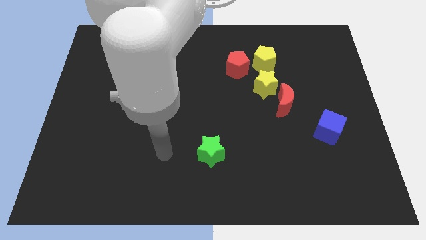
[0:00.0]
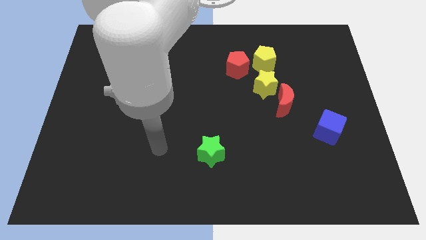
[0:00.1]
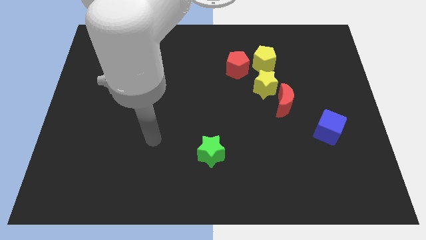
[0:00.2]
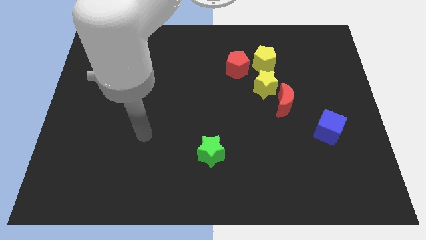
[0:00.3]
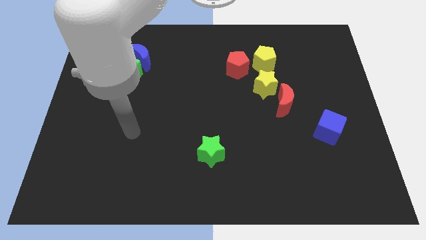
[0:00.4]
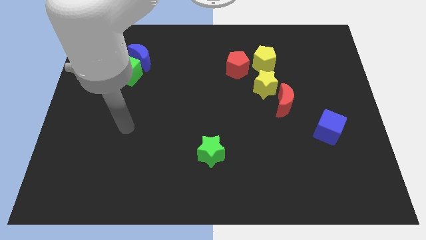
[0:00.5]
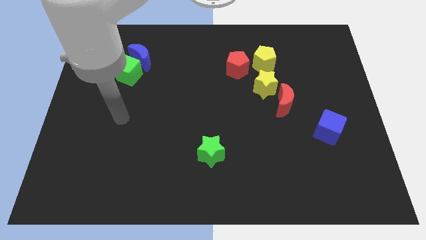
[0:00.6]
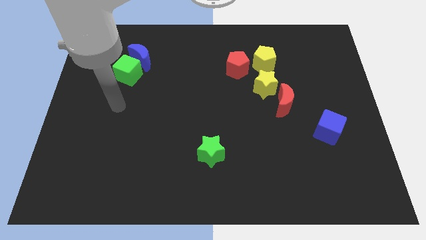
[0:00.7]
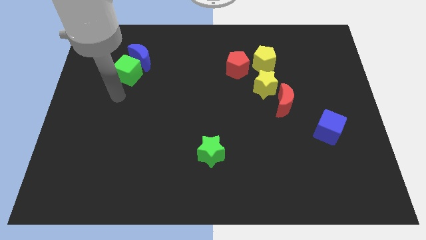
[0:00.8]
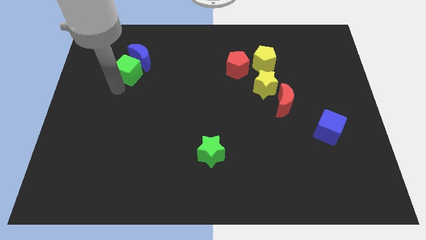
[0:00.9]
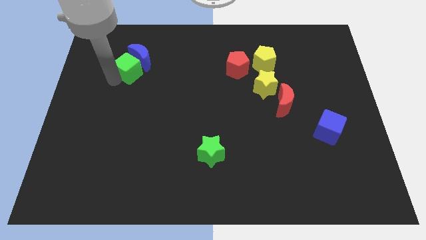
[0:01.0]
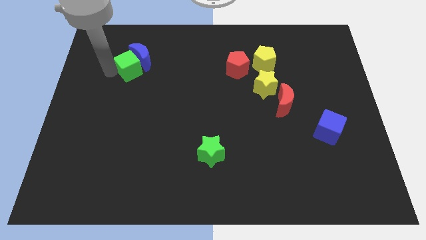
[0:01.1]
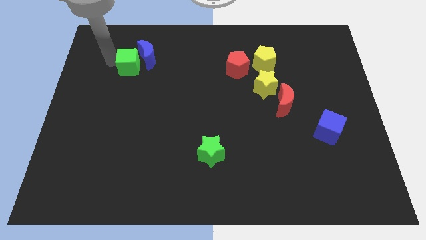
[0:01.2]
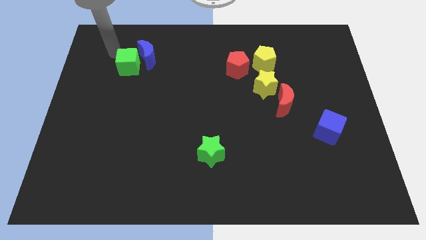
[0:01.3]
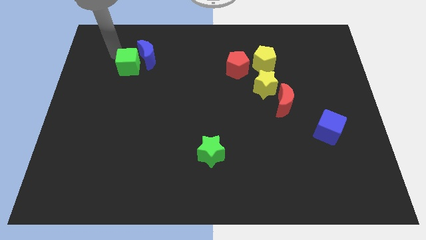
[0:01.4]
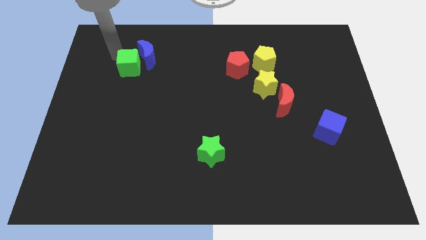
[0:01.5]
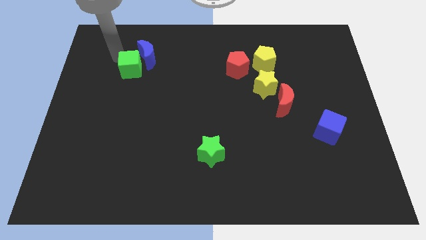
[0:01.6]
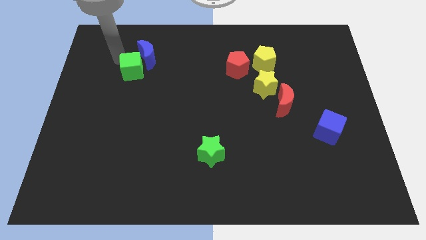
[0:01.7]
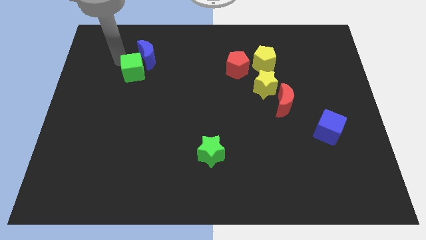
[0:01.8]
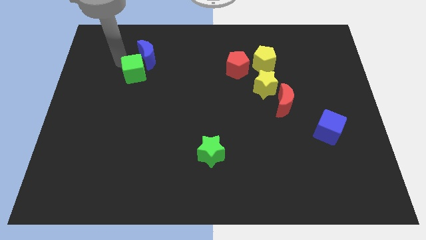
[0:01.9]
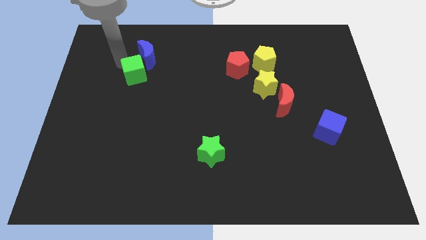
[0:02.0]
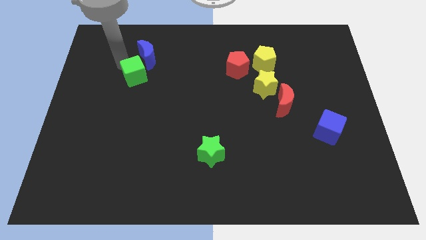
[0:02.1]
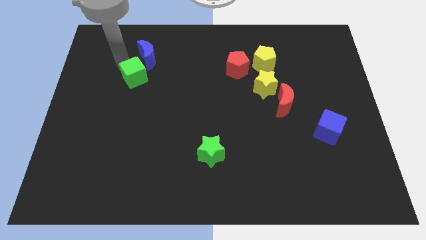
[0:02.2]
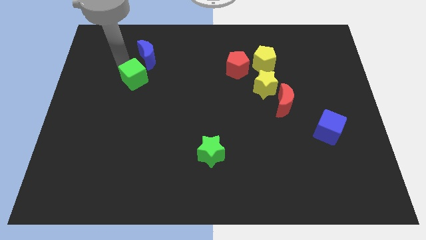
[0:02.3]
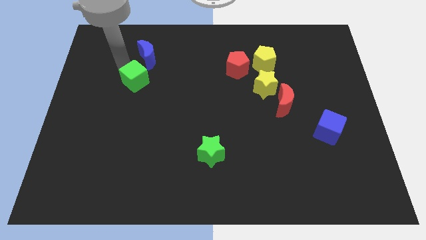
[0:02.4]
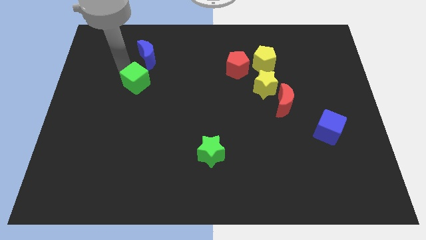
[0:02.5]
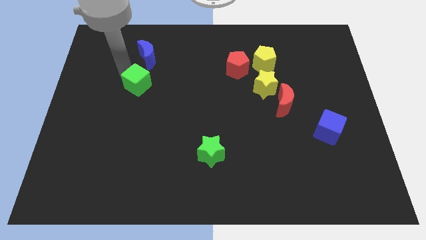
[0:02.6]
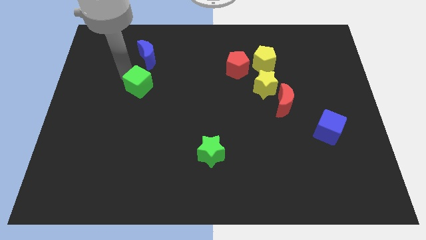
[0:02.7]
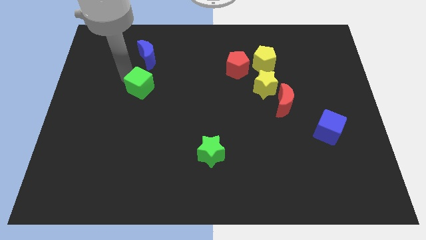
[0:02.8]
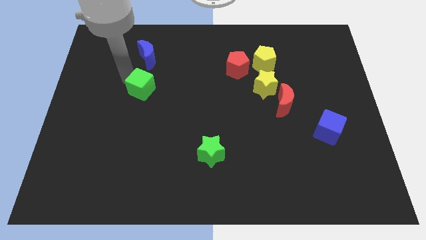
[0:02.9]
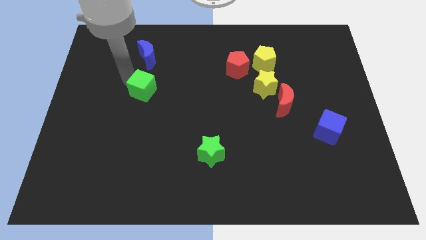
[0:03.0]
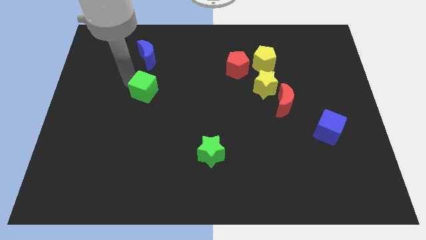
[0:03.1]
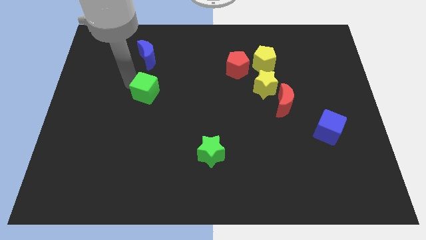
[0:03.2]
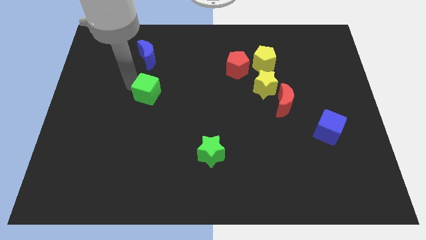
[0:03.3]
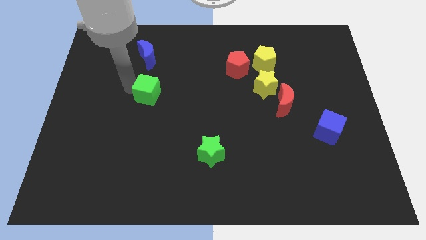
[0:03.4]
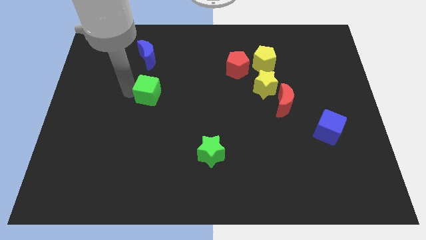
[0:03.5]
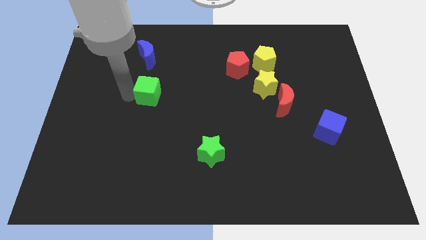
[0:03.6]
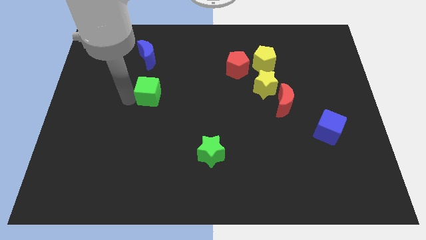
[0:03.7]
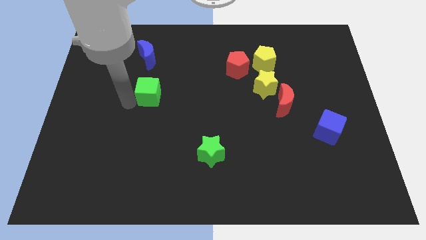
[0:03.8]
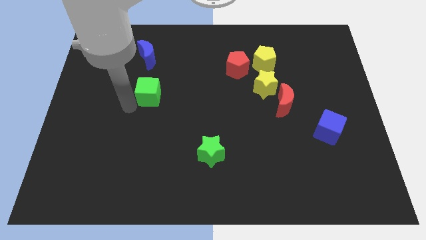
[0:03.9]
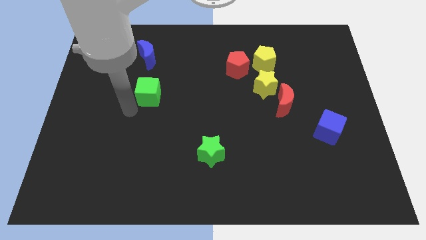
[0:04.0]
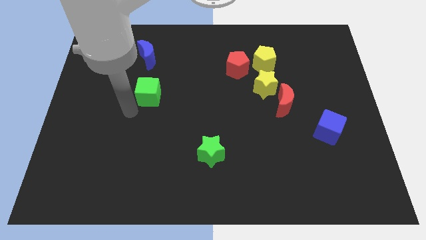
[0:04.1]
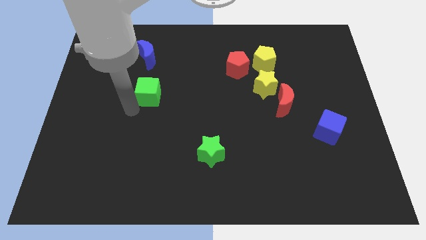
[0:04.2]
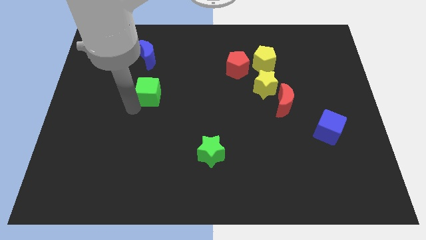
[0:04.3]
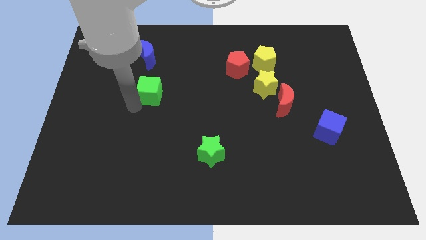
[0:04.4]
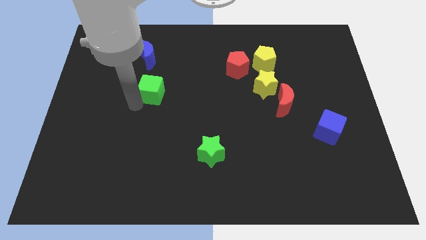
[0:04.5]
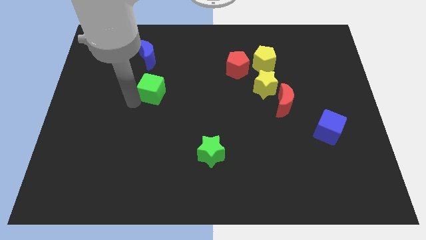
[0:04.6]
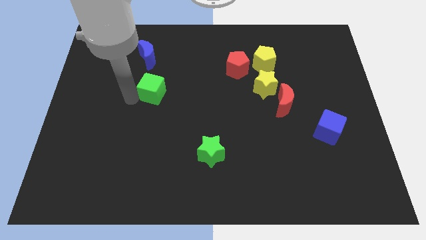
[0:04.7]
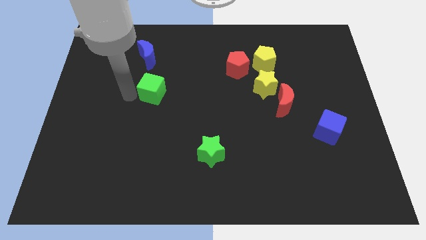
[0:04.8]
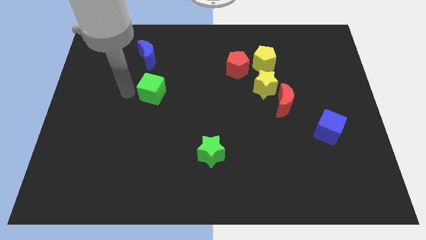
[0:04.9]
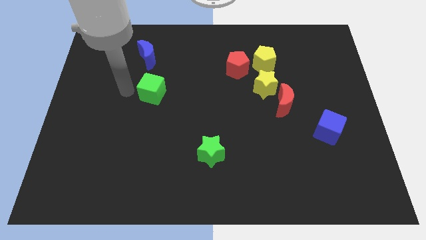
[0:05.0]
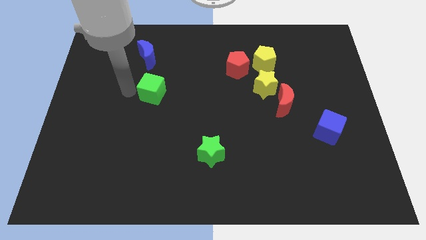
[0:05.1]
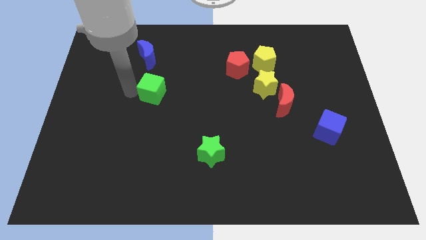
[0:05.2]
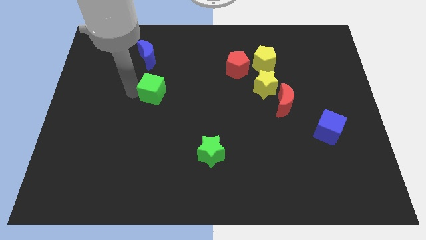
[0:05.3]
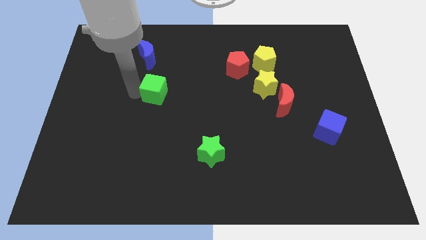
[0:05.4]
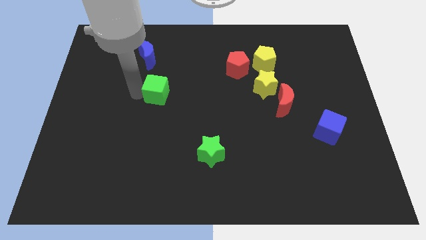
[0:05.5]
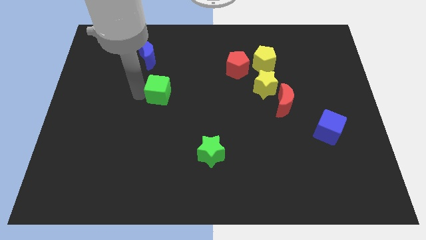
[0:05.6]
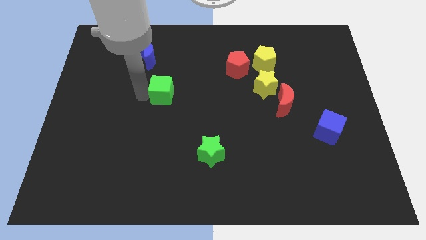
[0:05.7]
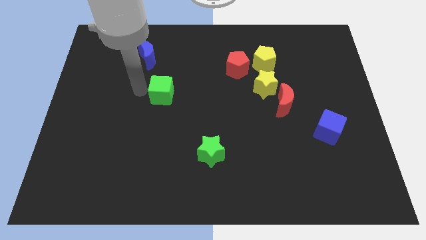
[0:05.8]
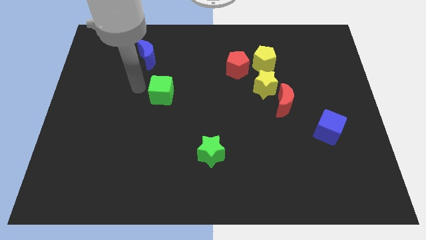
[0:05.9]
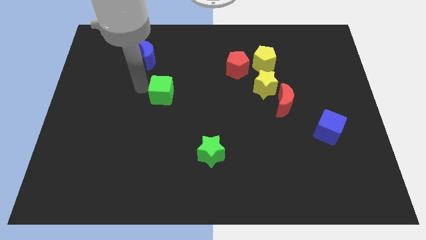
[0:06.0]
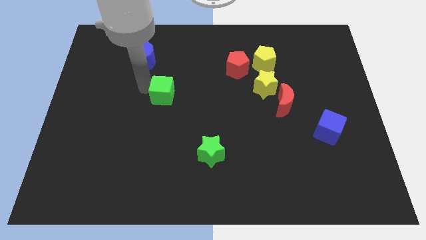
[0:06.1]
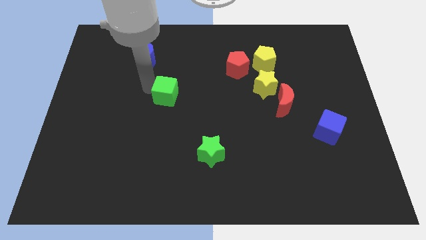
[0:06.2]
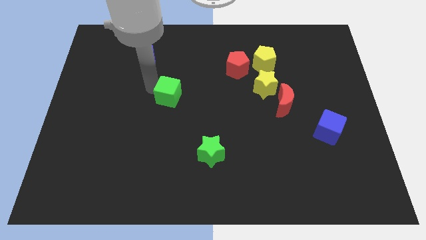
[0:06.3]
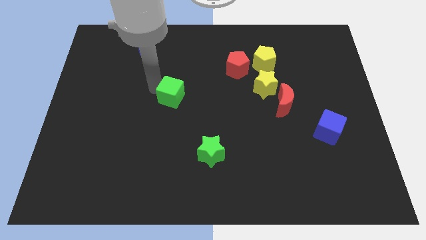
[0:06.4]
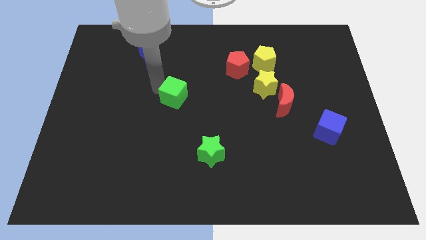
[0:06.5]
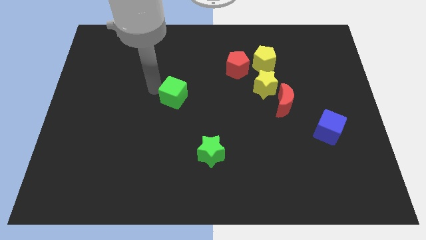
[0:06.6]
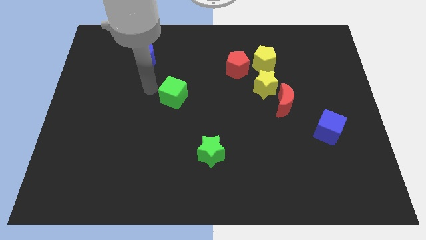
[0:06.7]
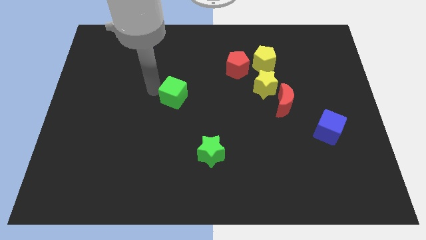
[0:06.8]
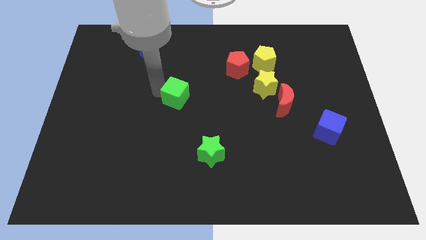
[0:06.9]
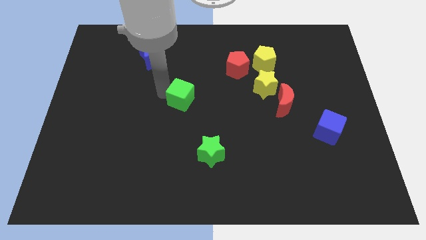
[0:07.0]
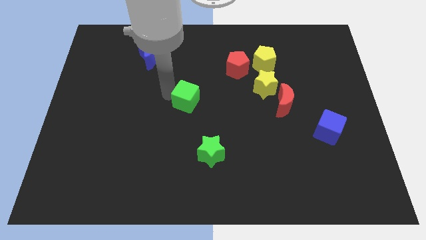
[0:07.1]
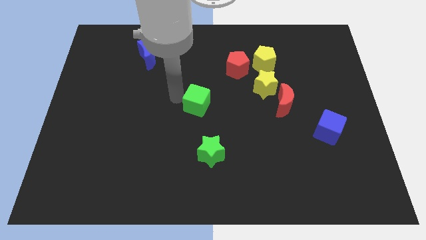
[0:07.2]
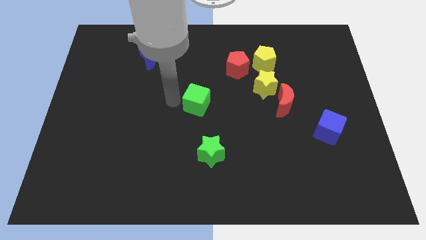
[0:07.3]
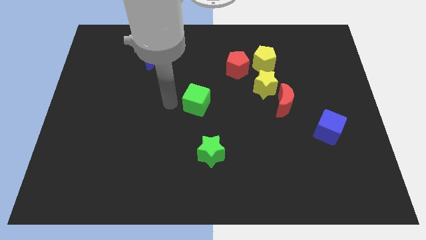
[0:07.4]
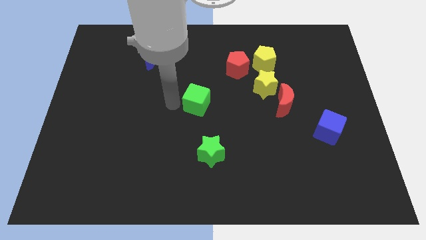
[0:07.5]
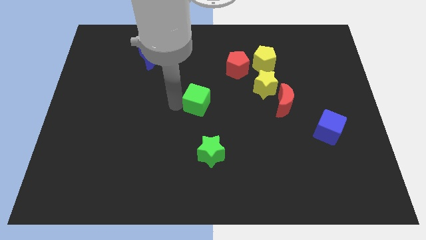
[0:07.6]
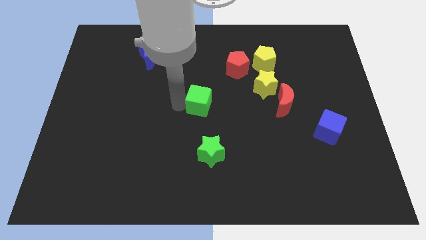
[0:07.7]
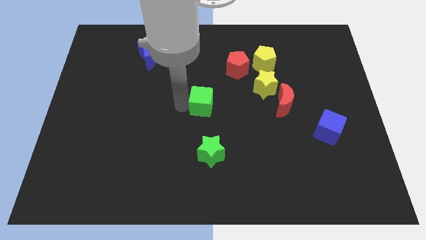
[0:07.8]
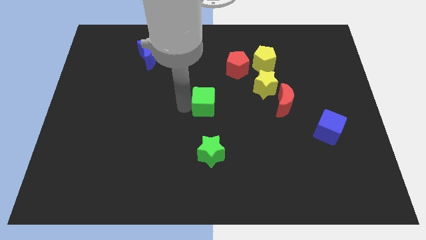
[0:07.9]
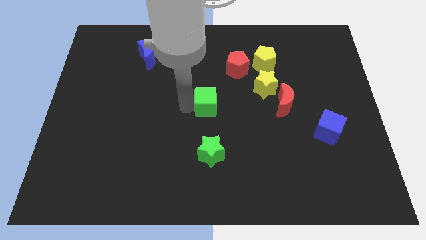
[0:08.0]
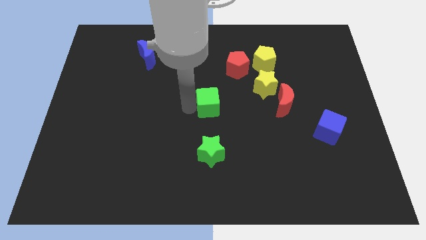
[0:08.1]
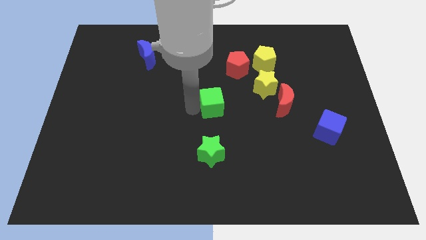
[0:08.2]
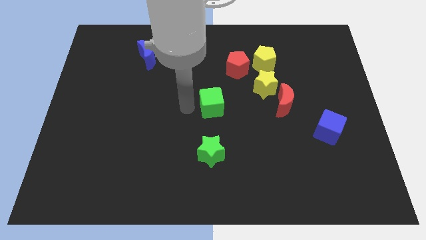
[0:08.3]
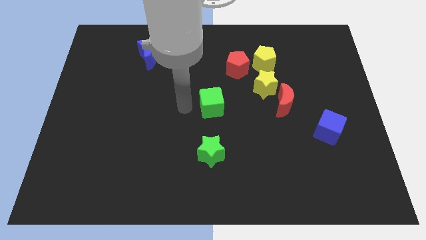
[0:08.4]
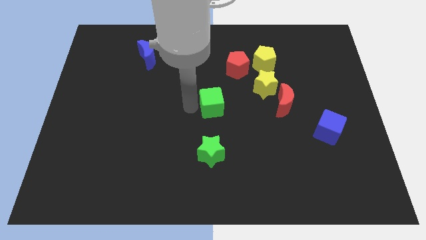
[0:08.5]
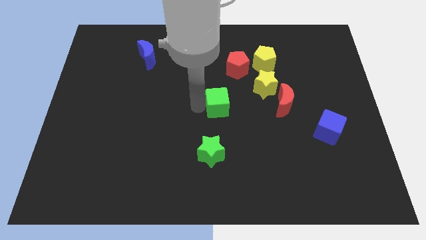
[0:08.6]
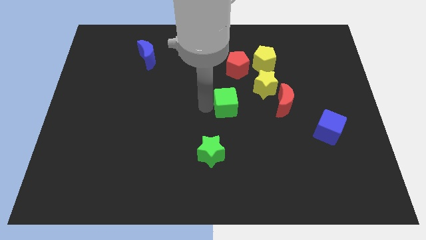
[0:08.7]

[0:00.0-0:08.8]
slide the green cube diagonally down and to the left of the yellow star
